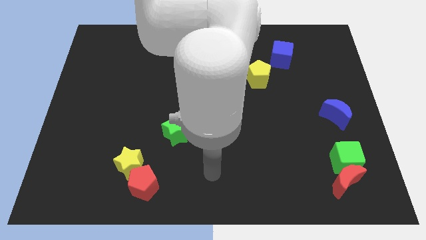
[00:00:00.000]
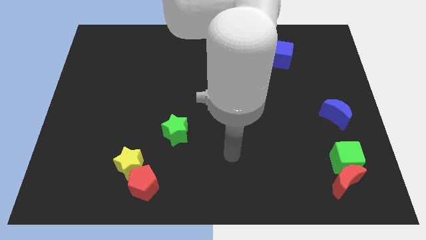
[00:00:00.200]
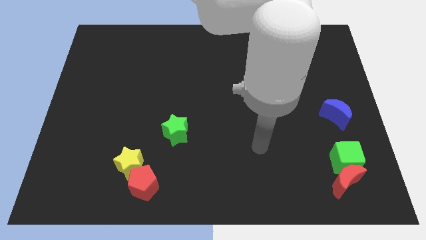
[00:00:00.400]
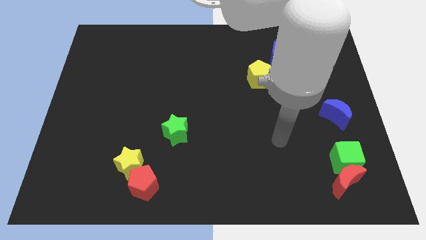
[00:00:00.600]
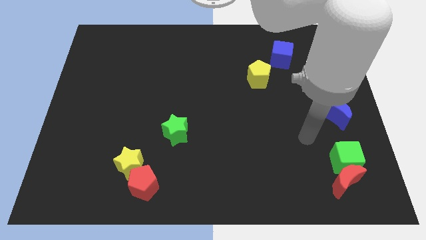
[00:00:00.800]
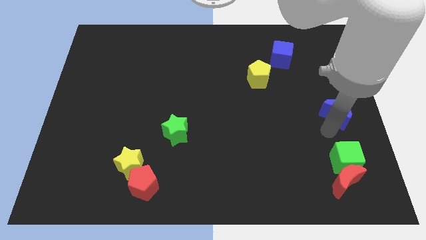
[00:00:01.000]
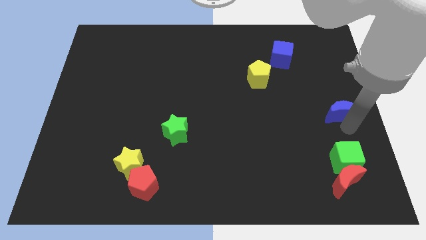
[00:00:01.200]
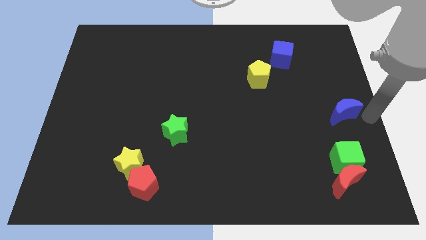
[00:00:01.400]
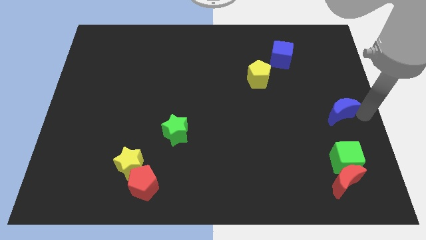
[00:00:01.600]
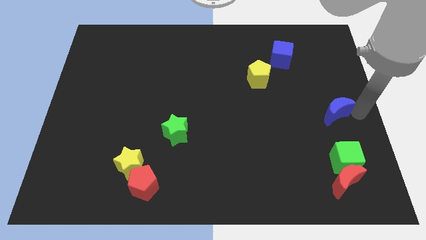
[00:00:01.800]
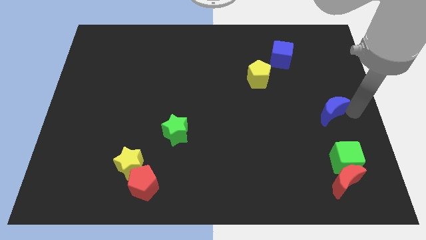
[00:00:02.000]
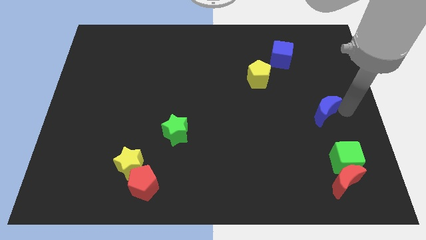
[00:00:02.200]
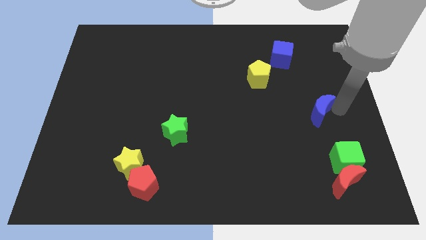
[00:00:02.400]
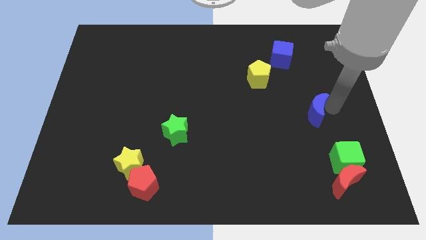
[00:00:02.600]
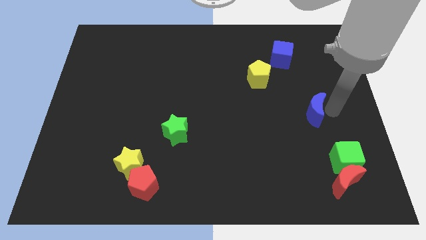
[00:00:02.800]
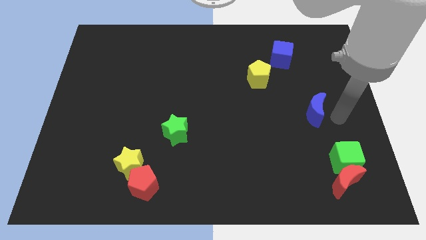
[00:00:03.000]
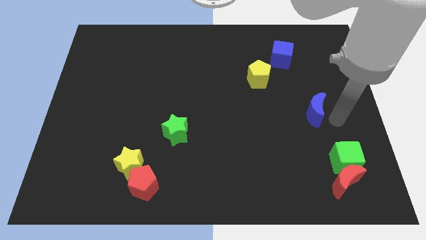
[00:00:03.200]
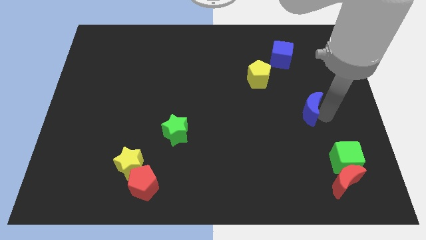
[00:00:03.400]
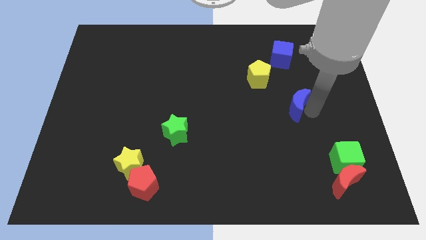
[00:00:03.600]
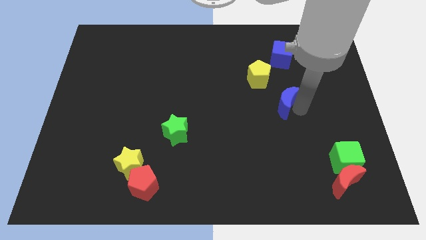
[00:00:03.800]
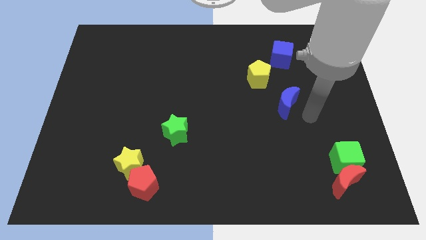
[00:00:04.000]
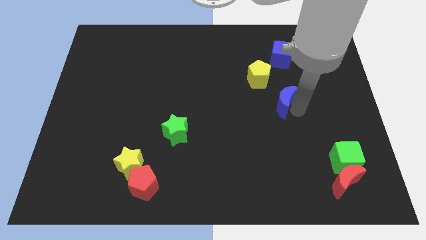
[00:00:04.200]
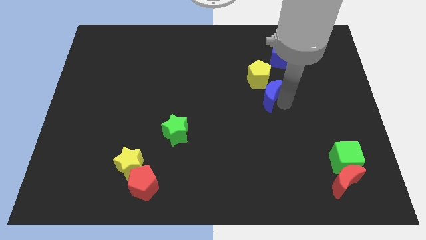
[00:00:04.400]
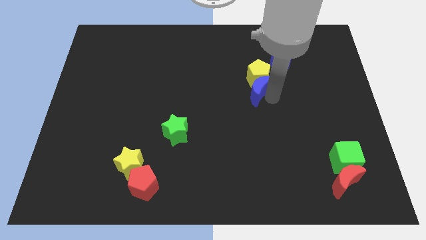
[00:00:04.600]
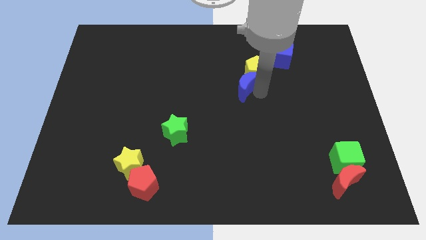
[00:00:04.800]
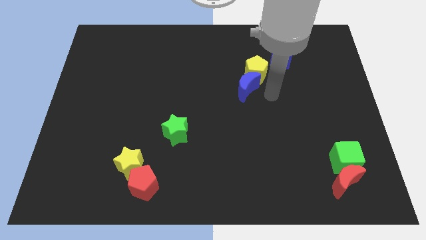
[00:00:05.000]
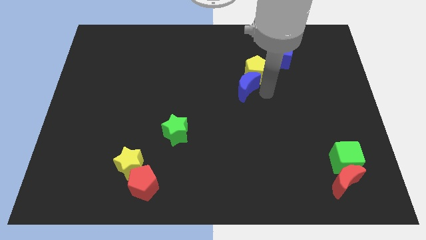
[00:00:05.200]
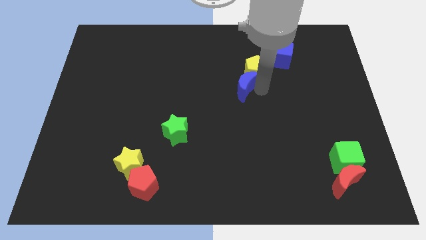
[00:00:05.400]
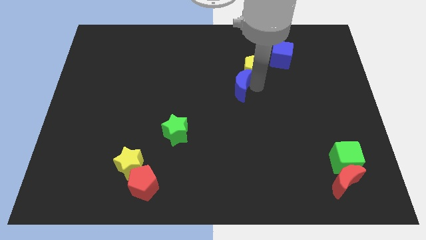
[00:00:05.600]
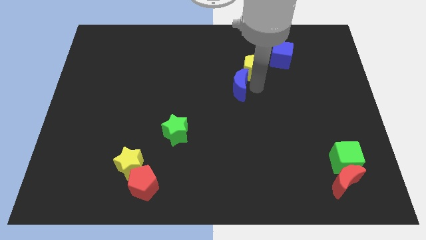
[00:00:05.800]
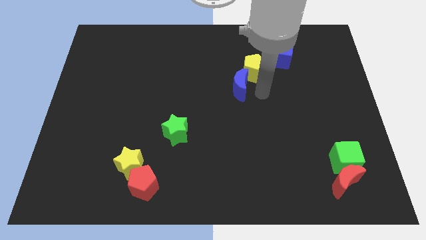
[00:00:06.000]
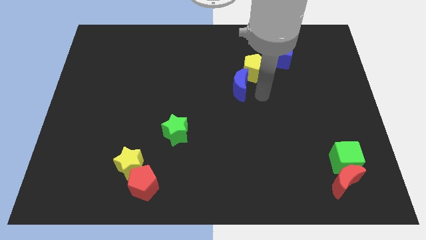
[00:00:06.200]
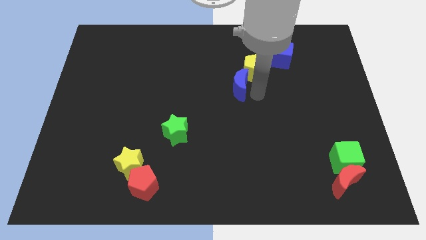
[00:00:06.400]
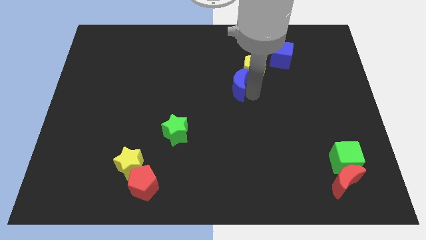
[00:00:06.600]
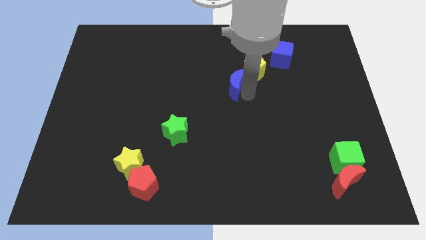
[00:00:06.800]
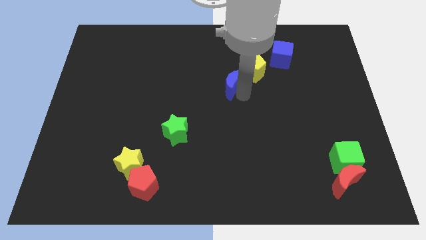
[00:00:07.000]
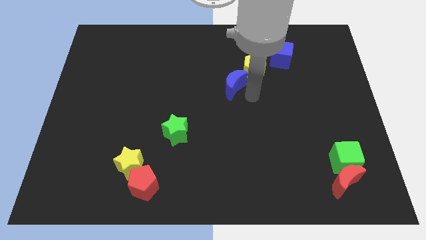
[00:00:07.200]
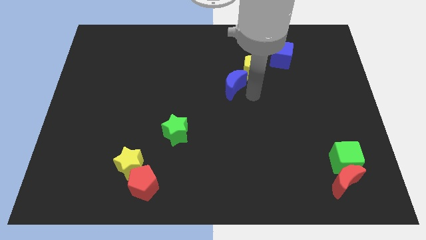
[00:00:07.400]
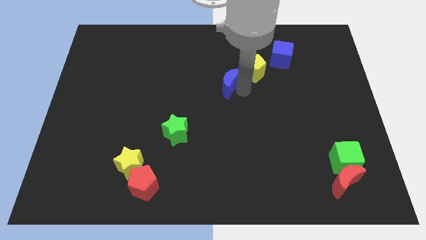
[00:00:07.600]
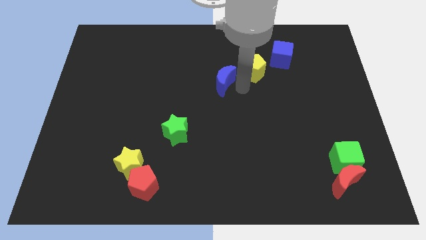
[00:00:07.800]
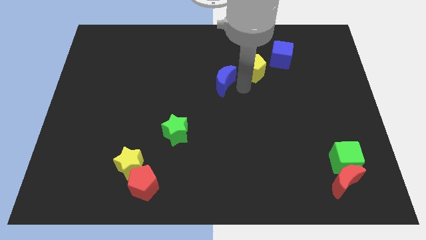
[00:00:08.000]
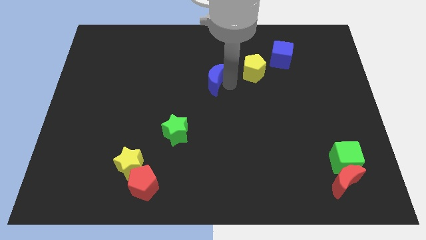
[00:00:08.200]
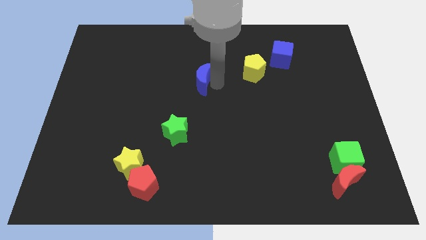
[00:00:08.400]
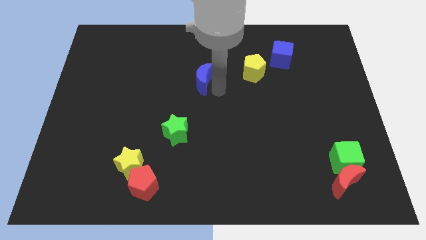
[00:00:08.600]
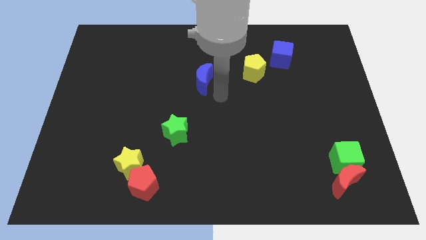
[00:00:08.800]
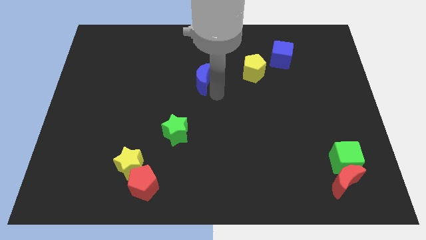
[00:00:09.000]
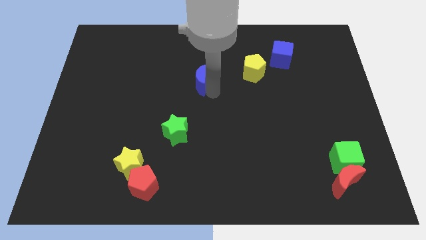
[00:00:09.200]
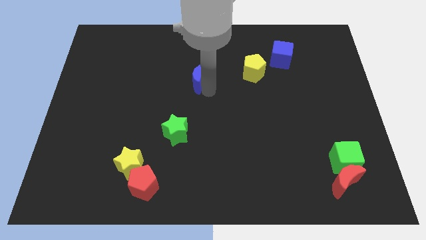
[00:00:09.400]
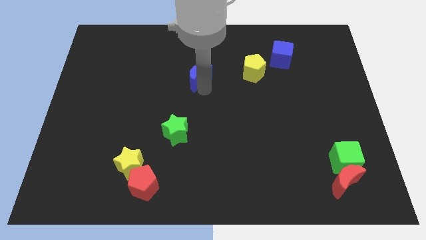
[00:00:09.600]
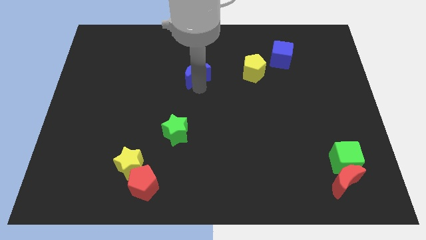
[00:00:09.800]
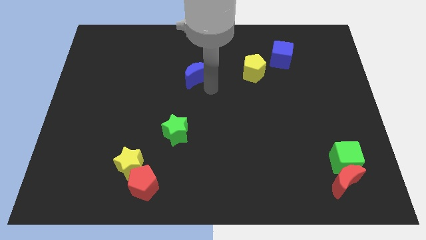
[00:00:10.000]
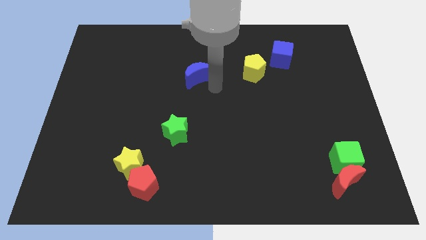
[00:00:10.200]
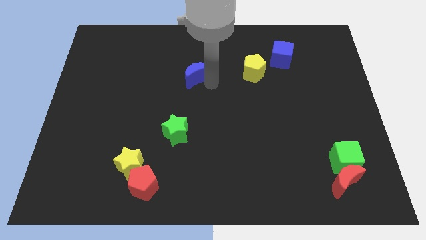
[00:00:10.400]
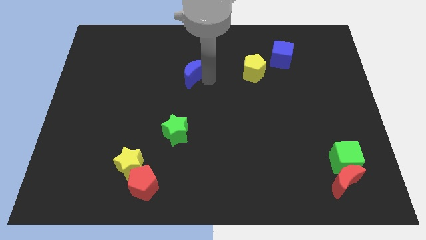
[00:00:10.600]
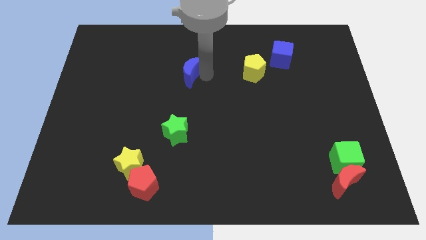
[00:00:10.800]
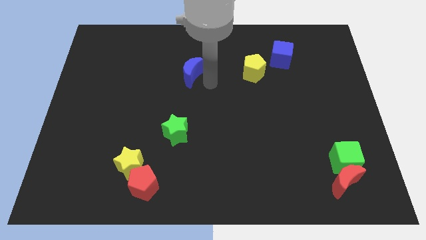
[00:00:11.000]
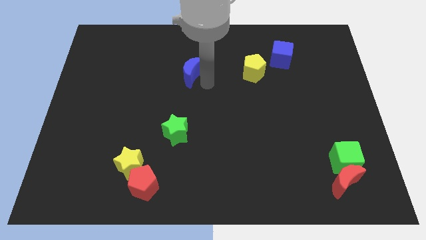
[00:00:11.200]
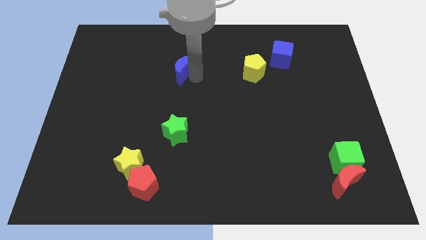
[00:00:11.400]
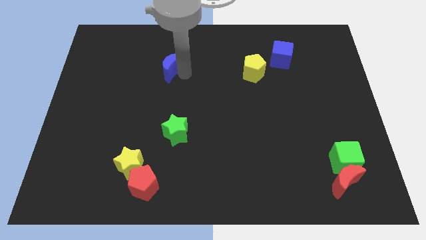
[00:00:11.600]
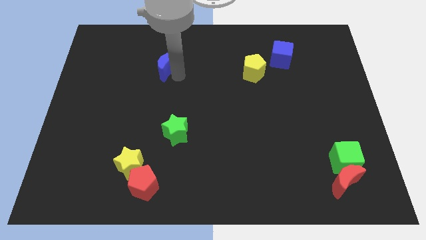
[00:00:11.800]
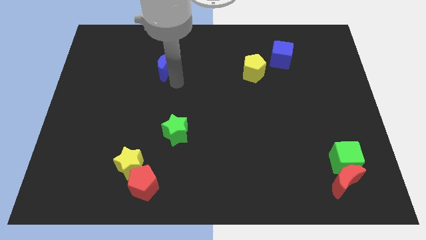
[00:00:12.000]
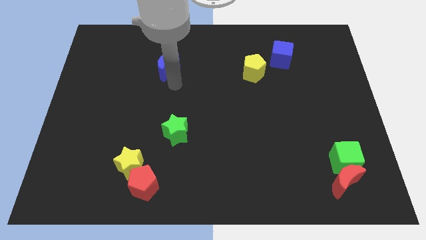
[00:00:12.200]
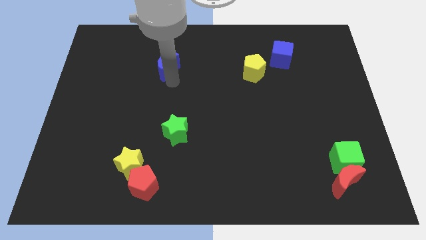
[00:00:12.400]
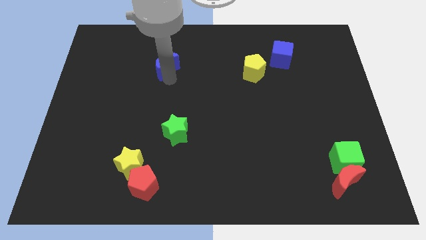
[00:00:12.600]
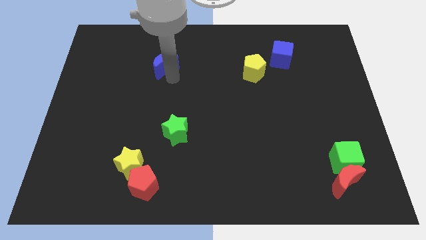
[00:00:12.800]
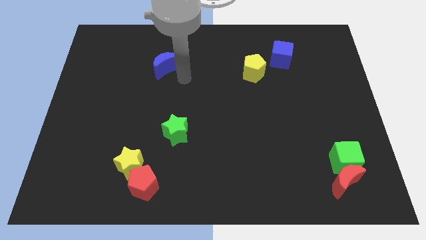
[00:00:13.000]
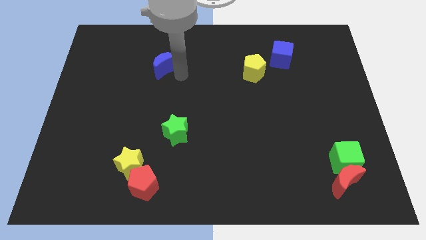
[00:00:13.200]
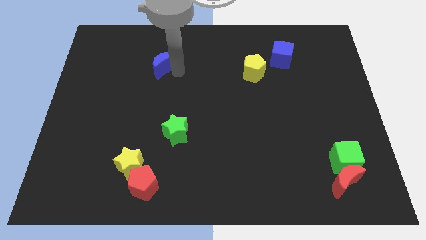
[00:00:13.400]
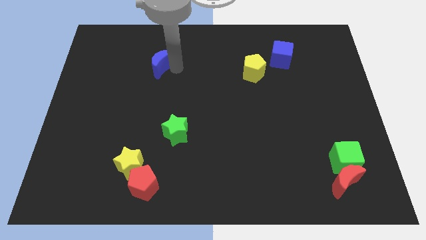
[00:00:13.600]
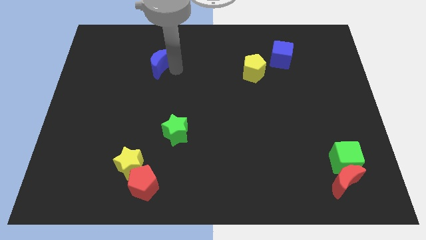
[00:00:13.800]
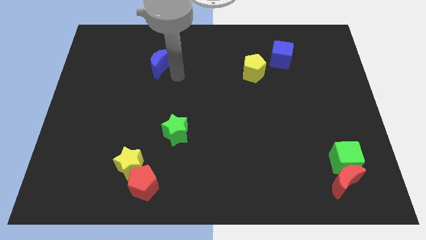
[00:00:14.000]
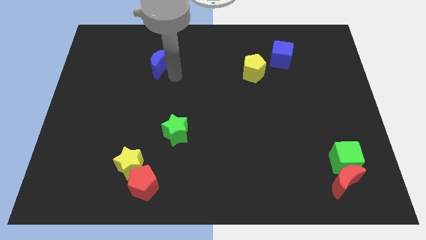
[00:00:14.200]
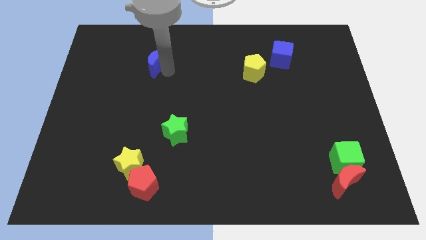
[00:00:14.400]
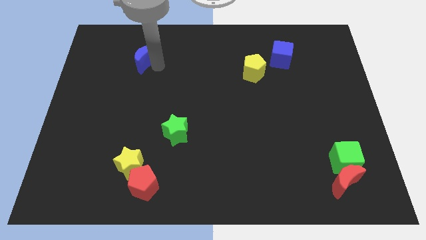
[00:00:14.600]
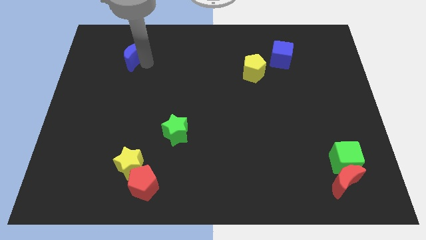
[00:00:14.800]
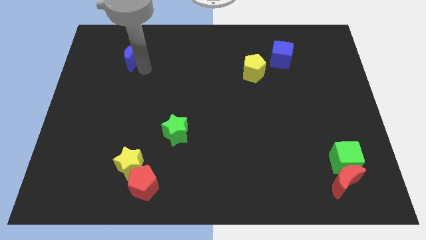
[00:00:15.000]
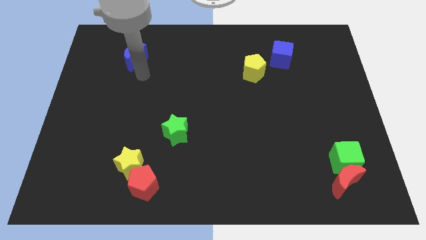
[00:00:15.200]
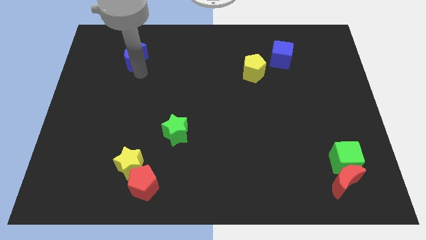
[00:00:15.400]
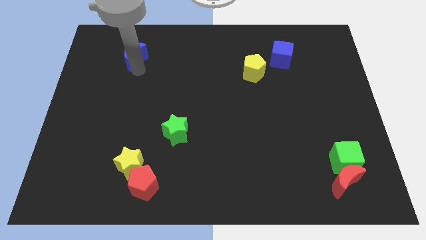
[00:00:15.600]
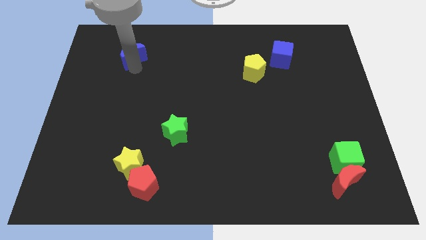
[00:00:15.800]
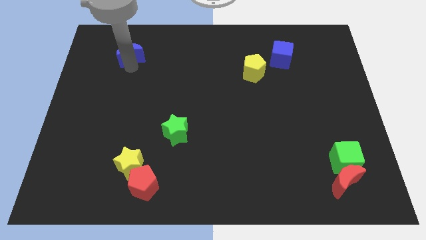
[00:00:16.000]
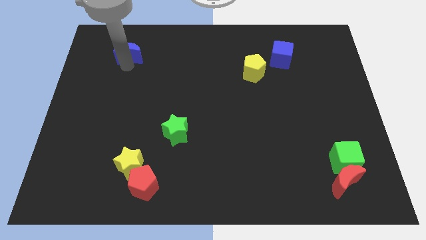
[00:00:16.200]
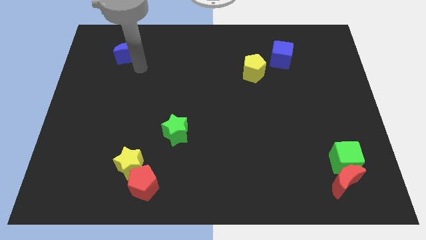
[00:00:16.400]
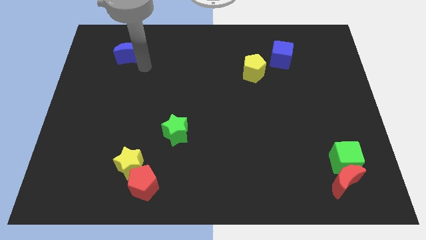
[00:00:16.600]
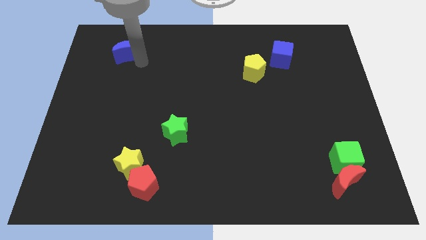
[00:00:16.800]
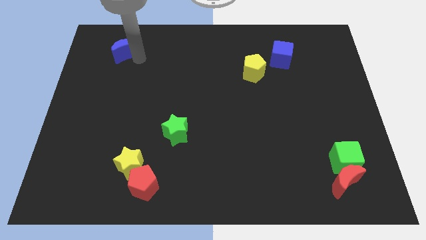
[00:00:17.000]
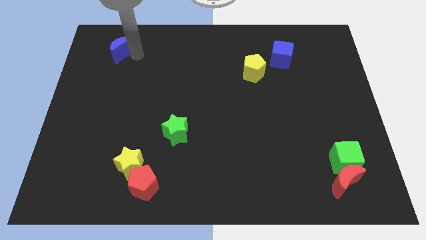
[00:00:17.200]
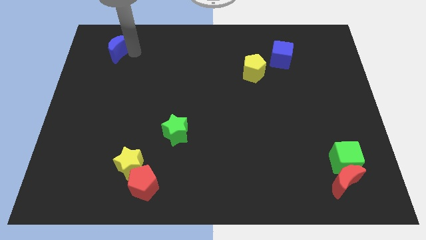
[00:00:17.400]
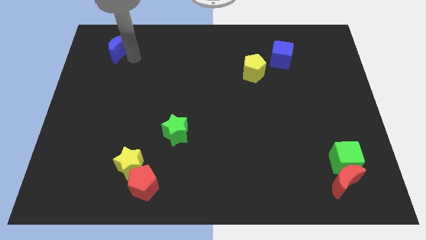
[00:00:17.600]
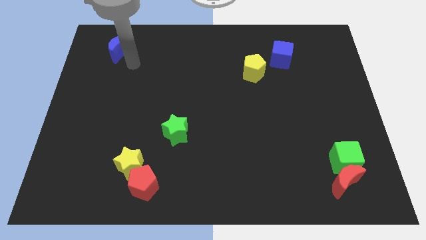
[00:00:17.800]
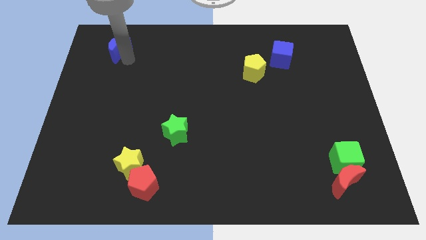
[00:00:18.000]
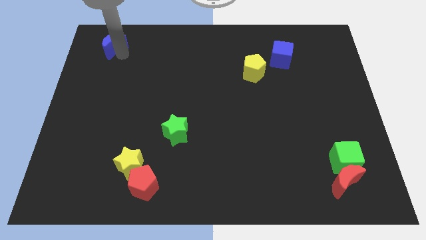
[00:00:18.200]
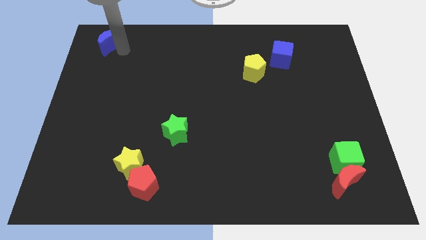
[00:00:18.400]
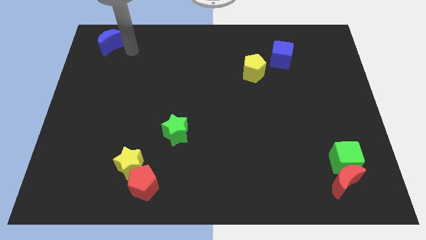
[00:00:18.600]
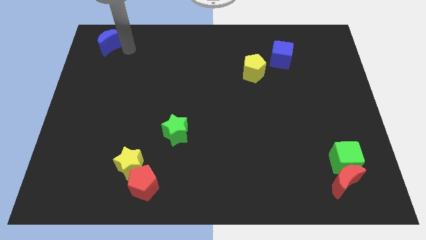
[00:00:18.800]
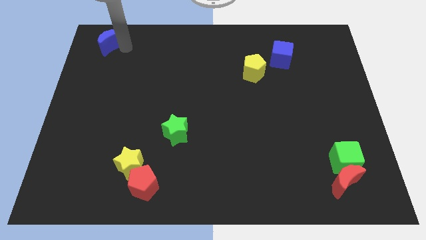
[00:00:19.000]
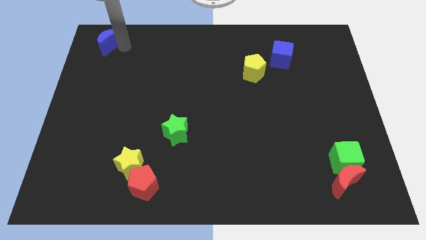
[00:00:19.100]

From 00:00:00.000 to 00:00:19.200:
push the blue moon to the upper left corner
